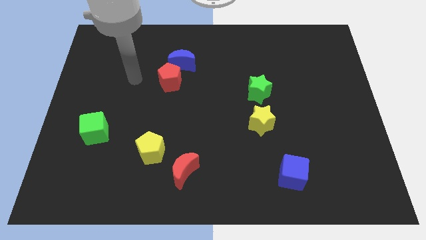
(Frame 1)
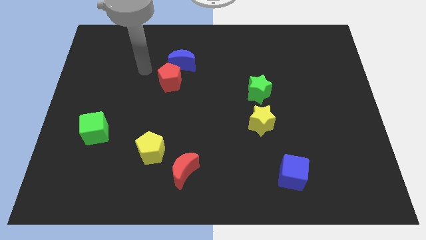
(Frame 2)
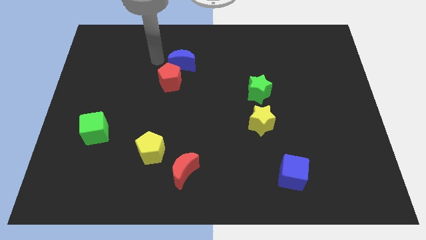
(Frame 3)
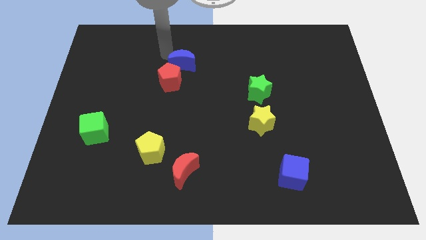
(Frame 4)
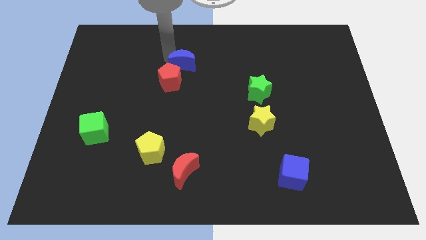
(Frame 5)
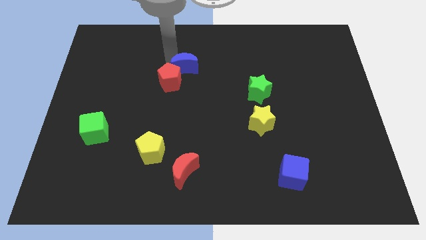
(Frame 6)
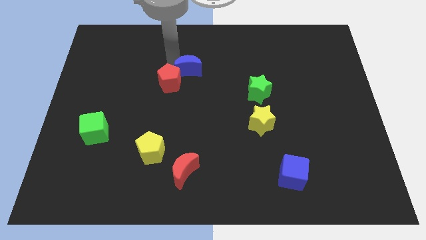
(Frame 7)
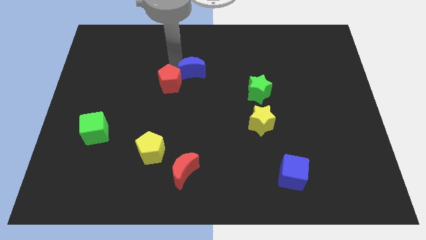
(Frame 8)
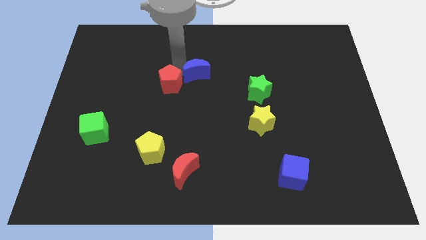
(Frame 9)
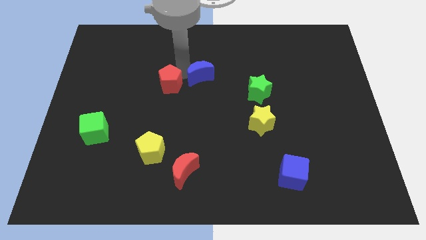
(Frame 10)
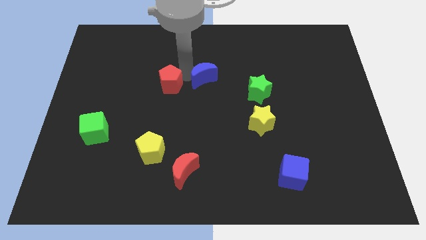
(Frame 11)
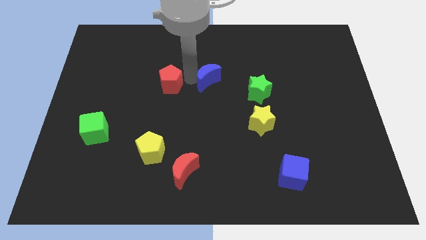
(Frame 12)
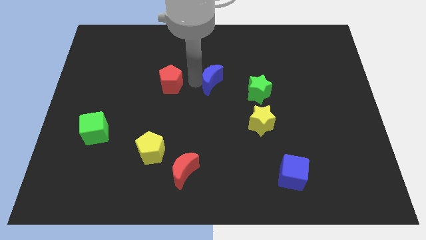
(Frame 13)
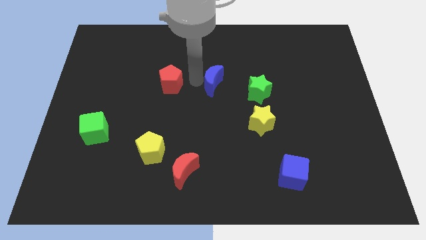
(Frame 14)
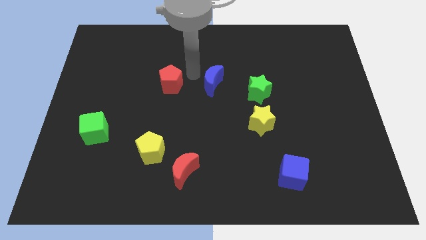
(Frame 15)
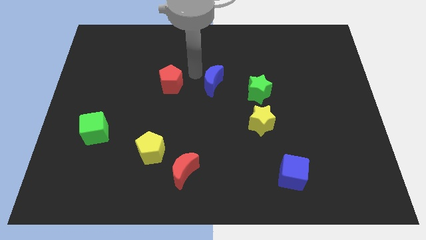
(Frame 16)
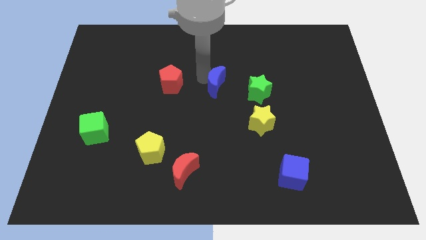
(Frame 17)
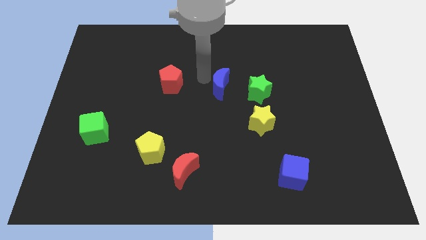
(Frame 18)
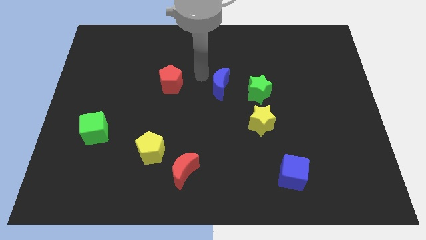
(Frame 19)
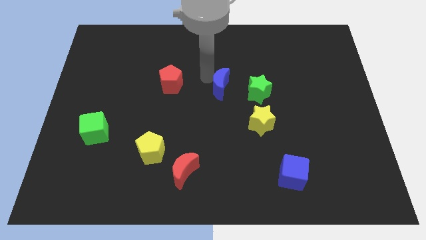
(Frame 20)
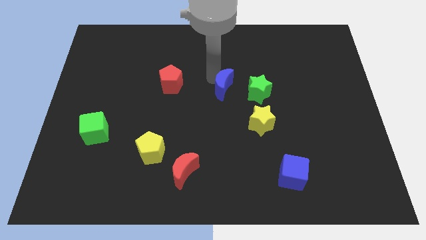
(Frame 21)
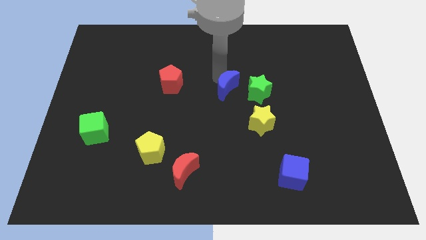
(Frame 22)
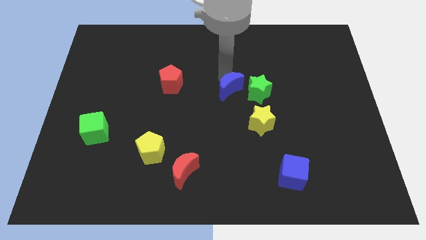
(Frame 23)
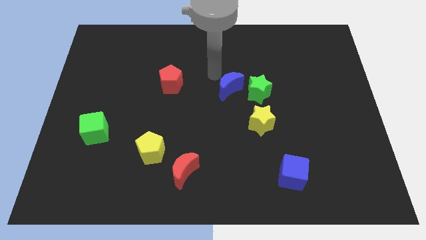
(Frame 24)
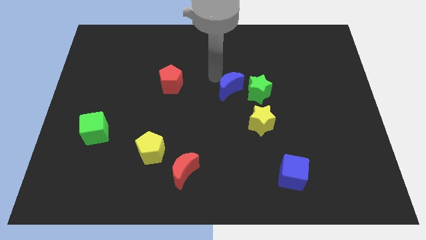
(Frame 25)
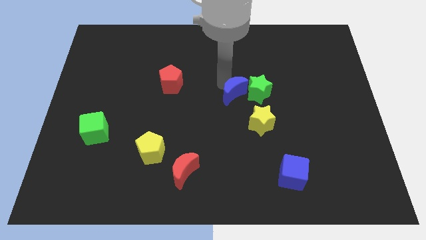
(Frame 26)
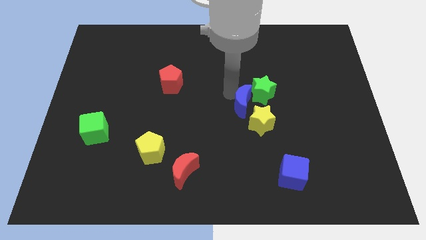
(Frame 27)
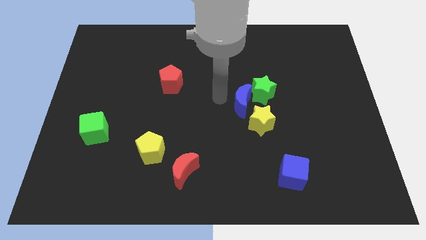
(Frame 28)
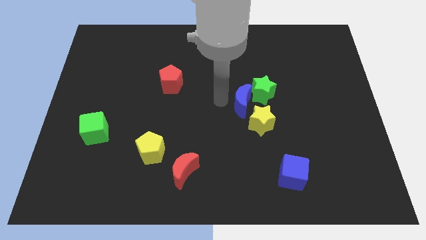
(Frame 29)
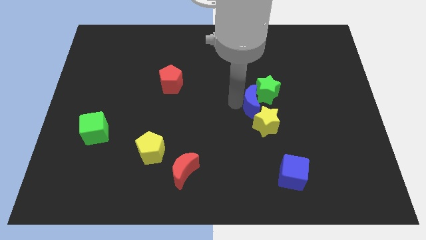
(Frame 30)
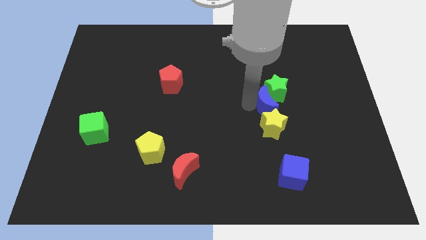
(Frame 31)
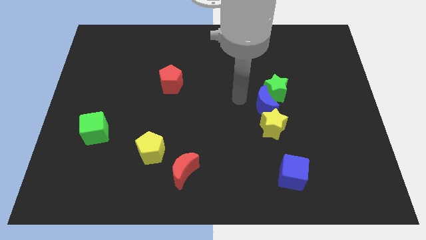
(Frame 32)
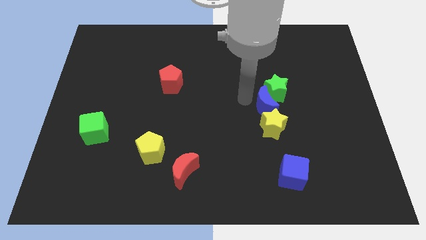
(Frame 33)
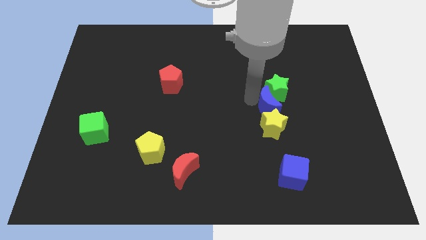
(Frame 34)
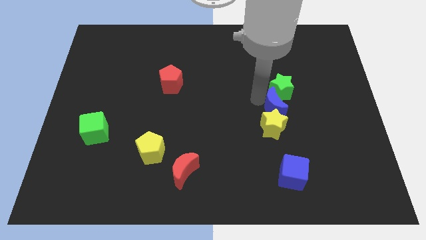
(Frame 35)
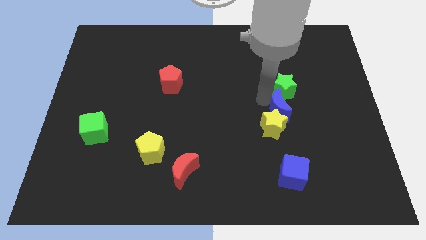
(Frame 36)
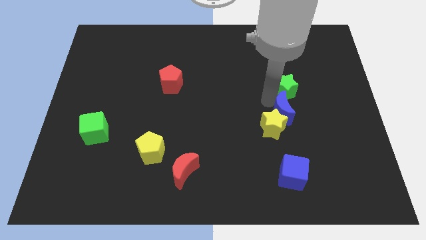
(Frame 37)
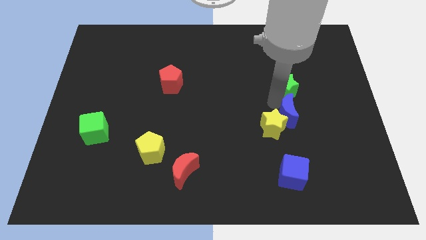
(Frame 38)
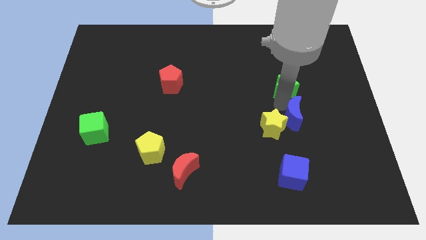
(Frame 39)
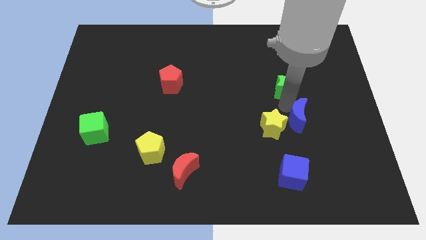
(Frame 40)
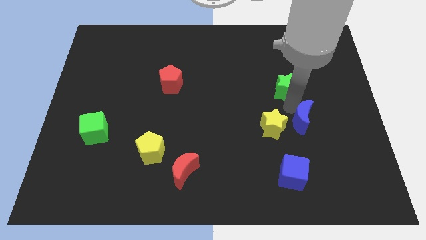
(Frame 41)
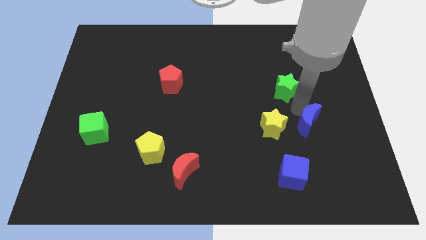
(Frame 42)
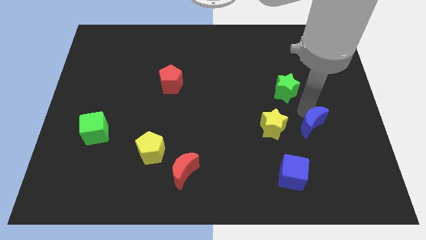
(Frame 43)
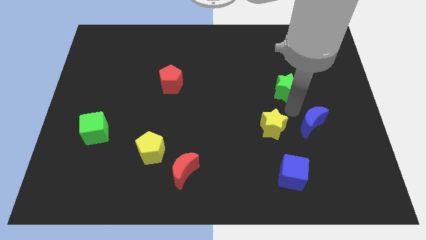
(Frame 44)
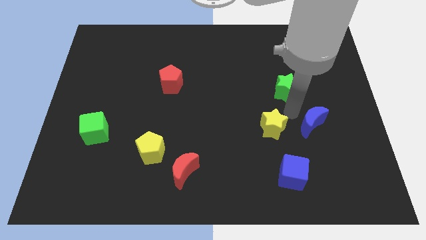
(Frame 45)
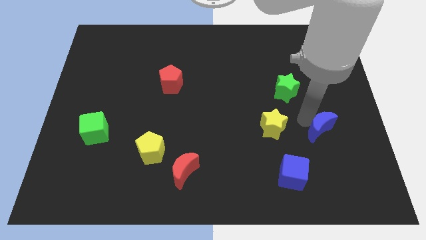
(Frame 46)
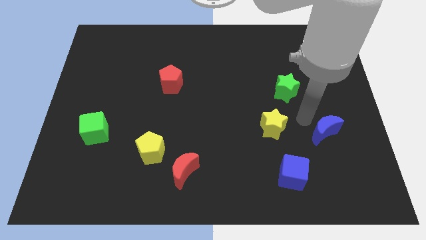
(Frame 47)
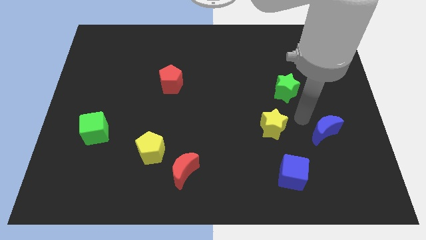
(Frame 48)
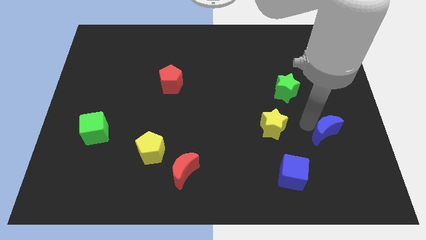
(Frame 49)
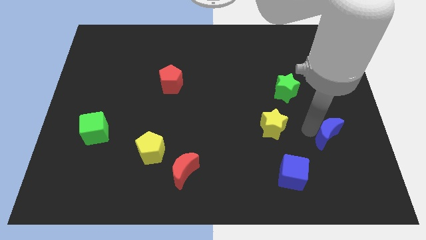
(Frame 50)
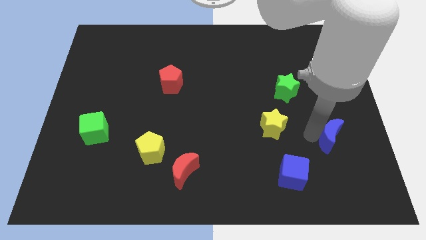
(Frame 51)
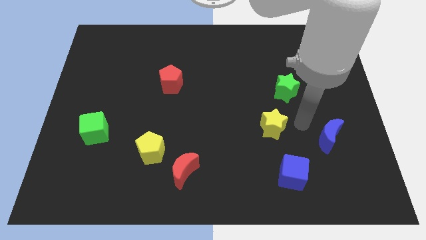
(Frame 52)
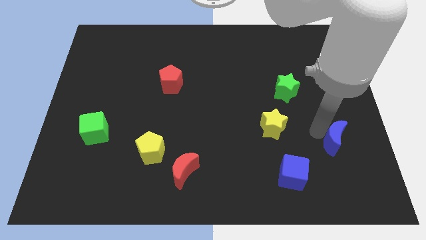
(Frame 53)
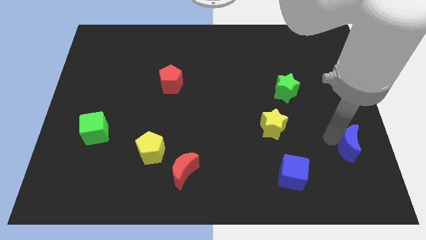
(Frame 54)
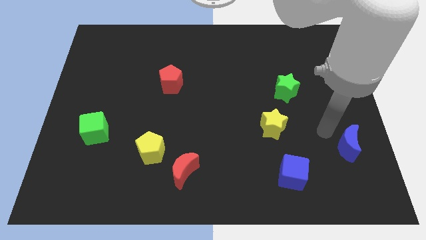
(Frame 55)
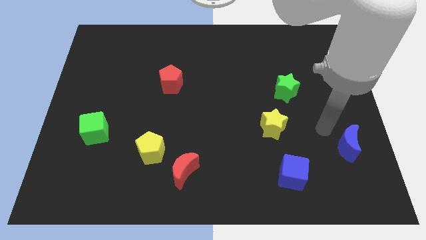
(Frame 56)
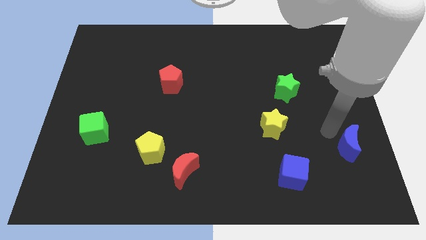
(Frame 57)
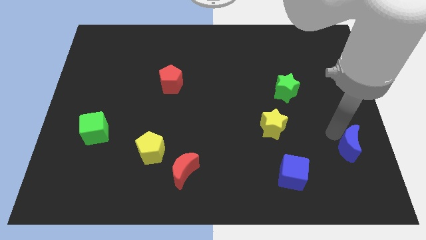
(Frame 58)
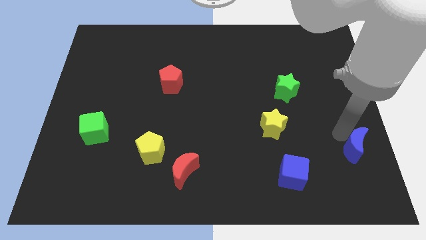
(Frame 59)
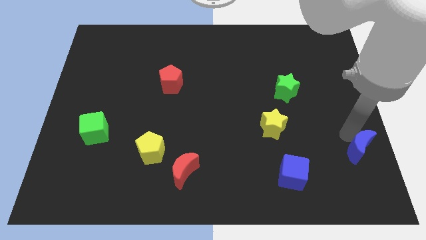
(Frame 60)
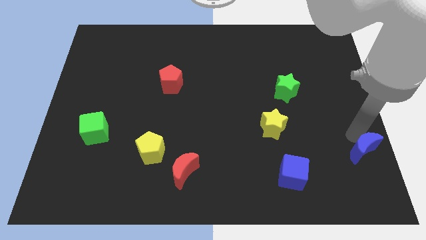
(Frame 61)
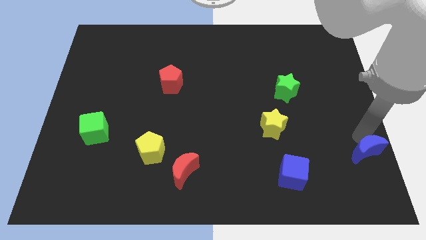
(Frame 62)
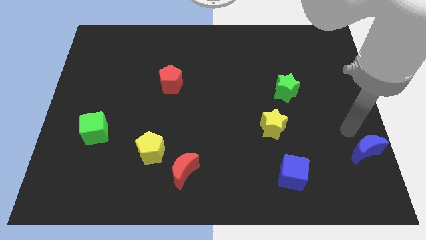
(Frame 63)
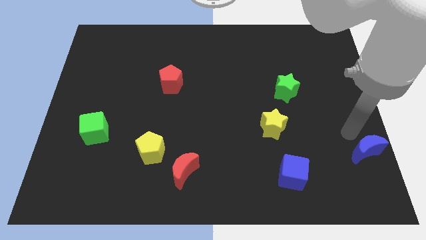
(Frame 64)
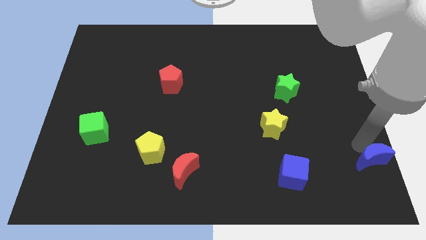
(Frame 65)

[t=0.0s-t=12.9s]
push the blue moon to the bottom right
